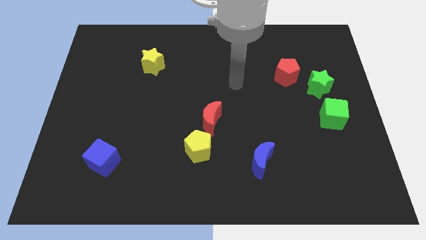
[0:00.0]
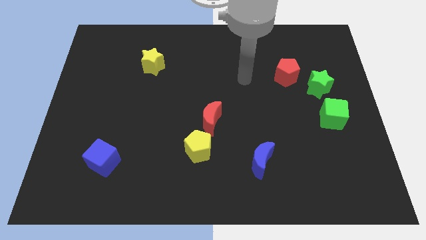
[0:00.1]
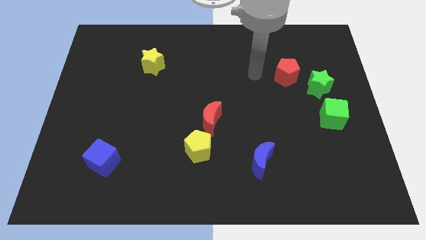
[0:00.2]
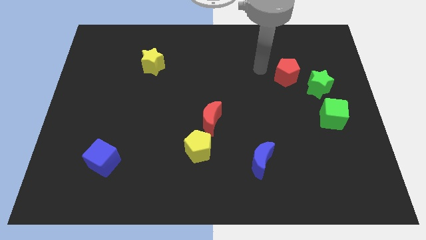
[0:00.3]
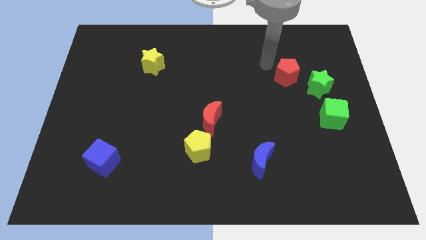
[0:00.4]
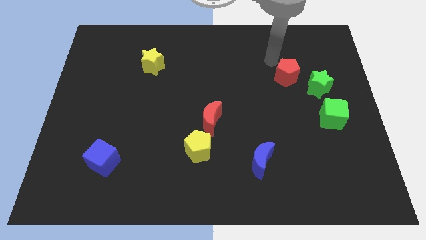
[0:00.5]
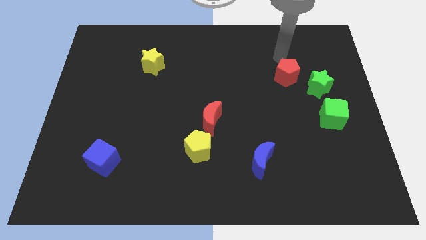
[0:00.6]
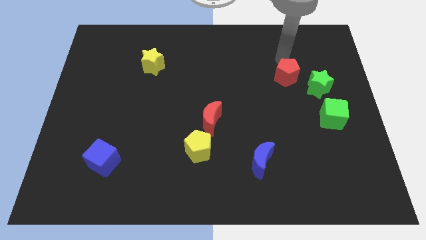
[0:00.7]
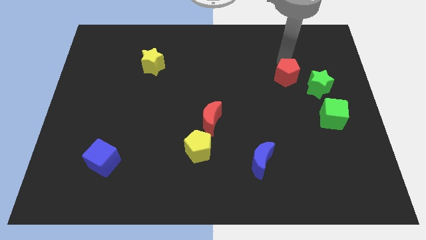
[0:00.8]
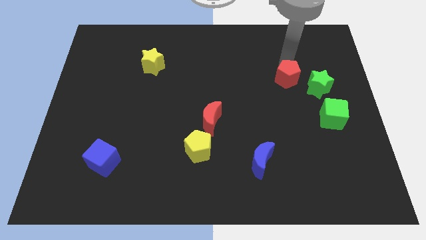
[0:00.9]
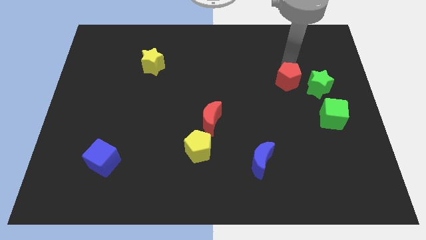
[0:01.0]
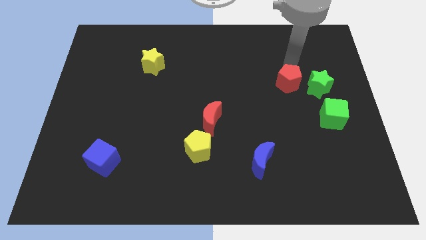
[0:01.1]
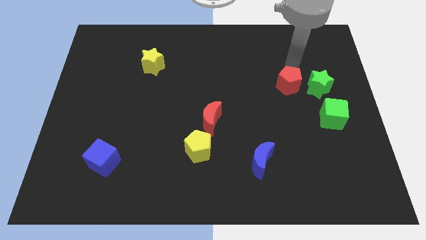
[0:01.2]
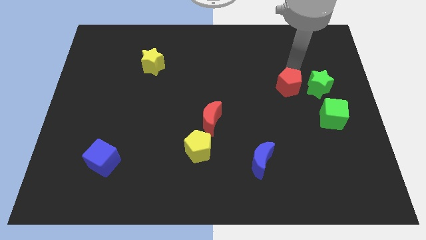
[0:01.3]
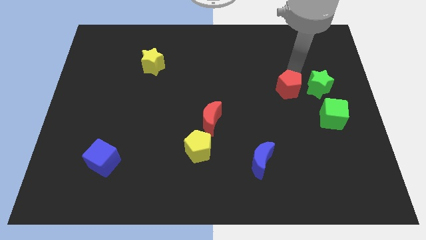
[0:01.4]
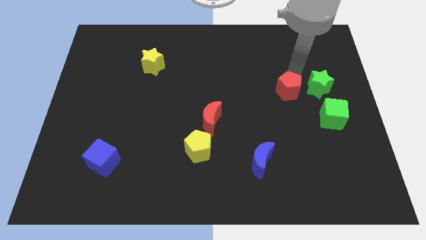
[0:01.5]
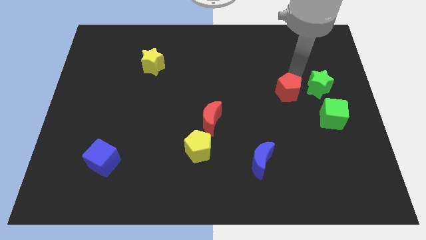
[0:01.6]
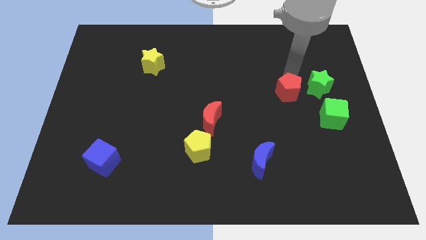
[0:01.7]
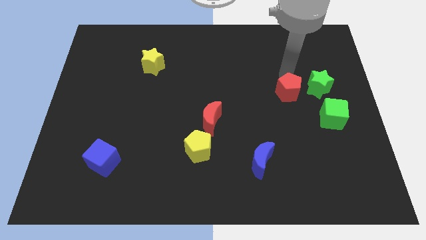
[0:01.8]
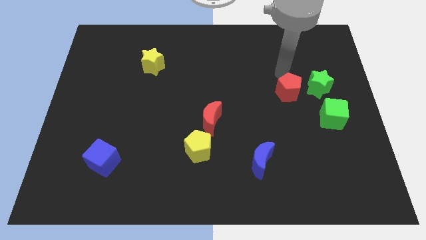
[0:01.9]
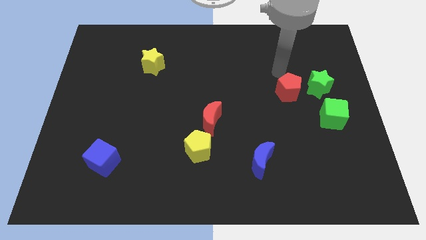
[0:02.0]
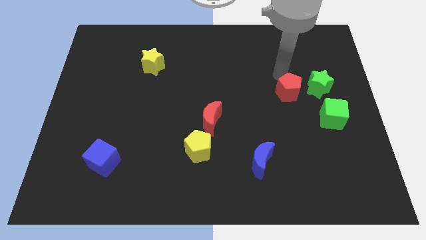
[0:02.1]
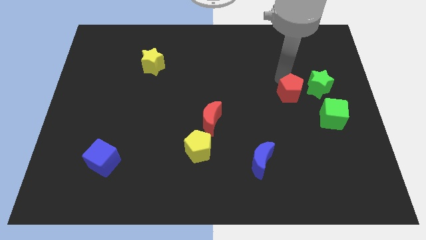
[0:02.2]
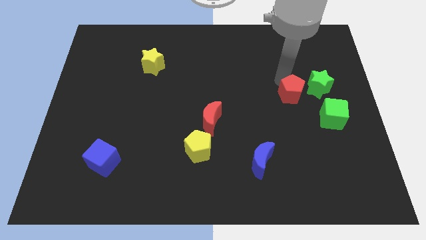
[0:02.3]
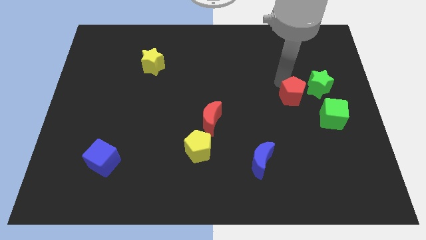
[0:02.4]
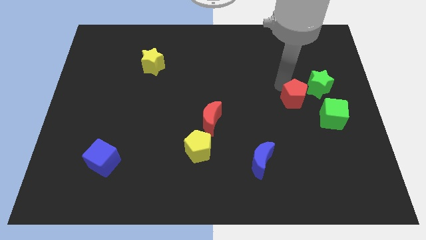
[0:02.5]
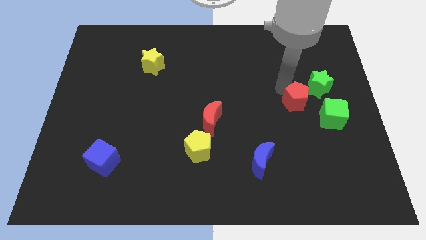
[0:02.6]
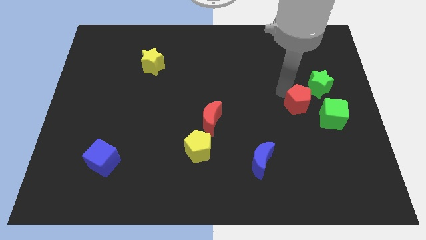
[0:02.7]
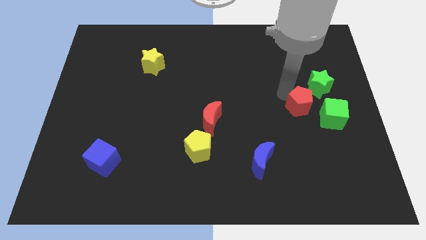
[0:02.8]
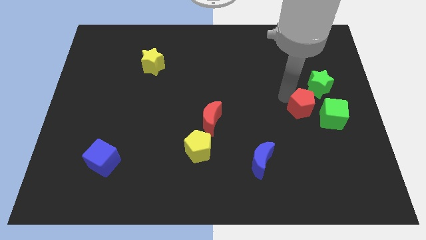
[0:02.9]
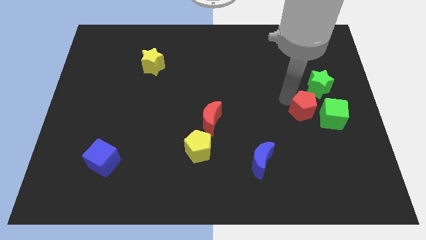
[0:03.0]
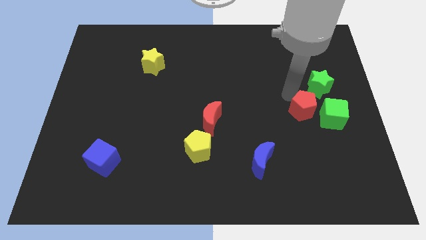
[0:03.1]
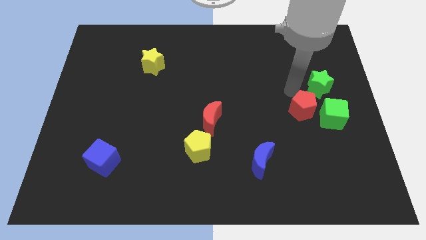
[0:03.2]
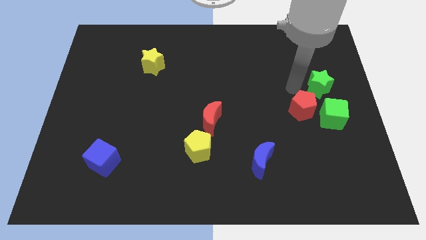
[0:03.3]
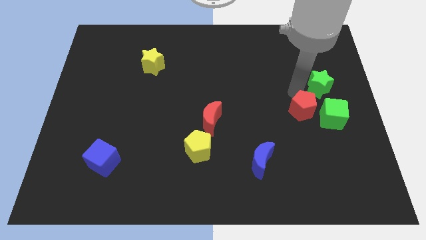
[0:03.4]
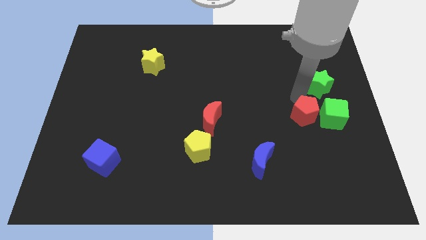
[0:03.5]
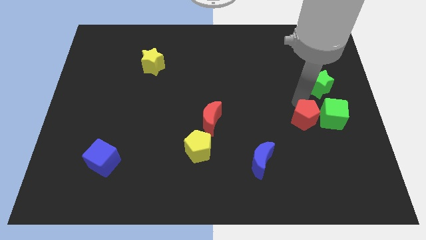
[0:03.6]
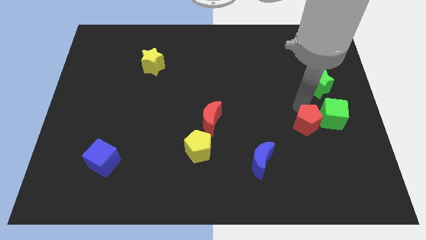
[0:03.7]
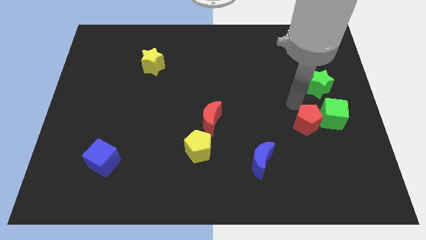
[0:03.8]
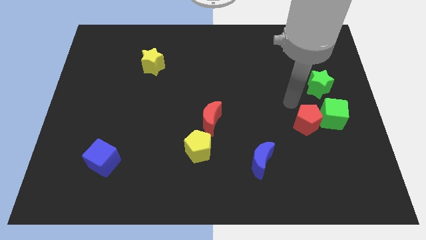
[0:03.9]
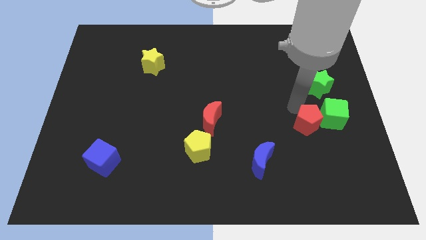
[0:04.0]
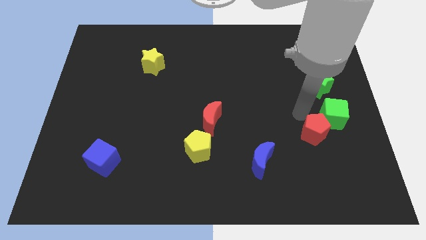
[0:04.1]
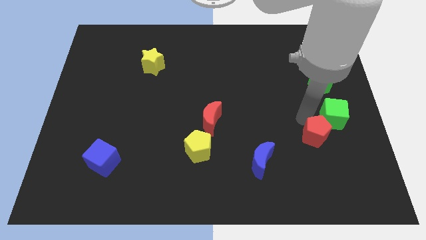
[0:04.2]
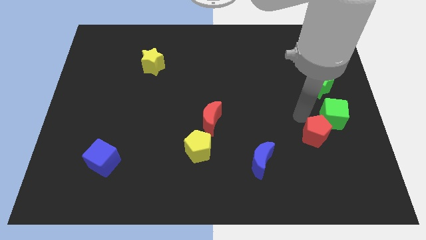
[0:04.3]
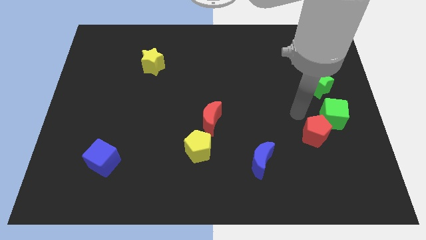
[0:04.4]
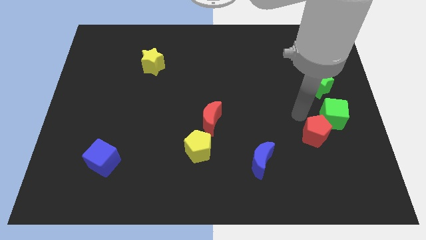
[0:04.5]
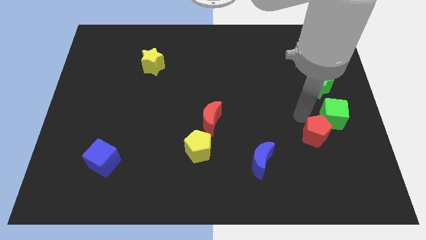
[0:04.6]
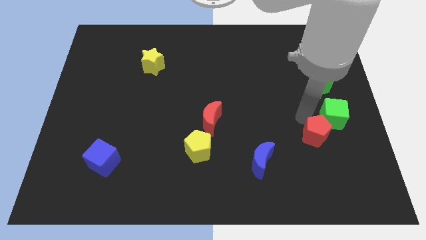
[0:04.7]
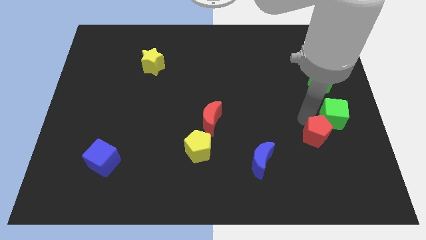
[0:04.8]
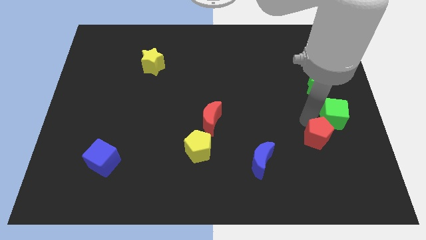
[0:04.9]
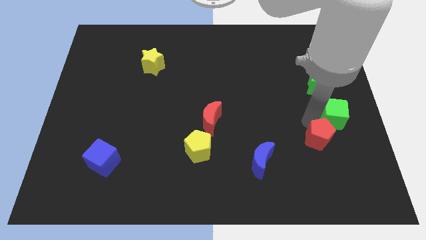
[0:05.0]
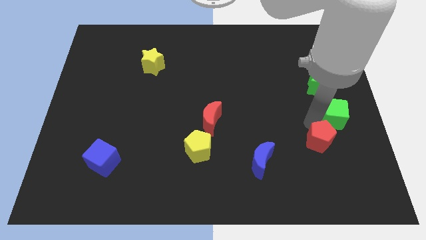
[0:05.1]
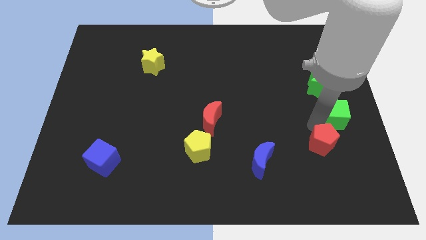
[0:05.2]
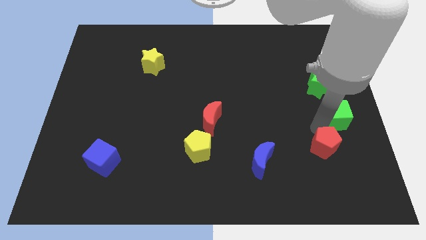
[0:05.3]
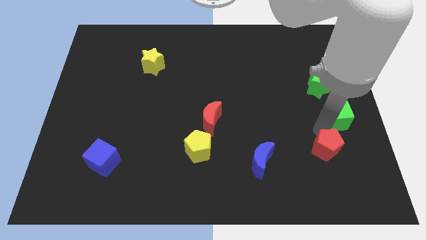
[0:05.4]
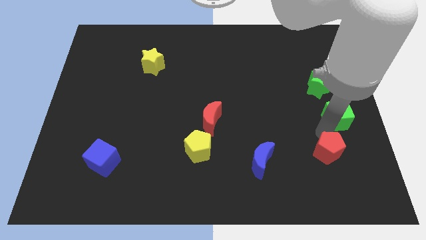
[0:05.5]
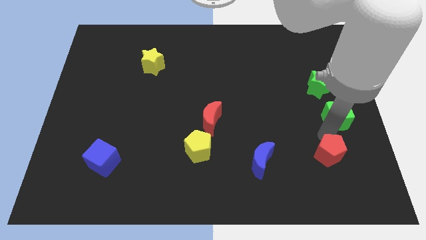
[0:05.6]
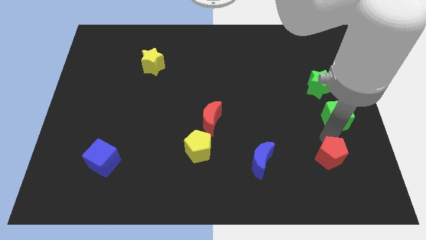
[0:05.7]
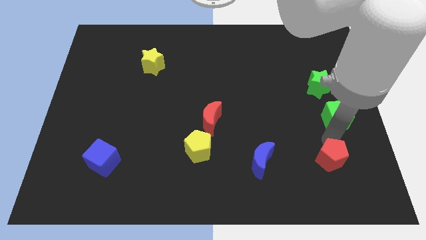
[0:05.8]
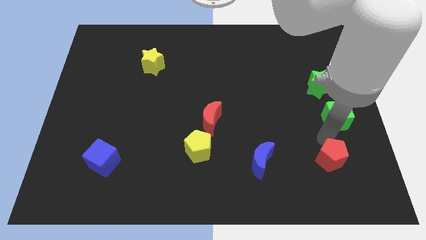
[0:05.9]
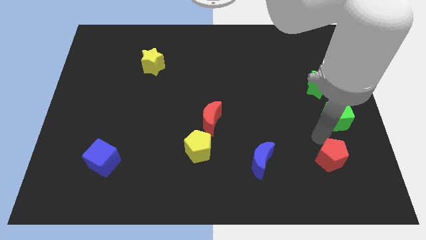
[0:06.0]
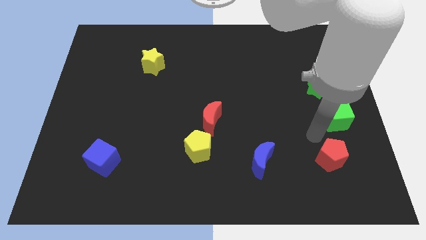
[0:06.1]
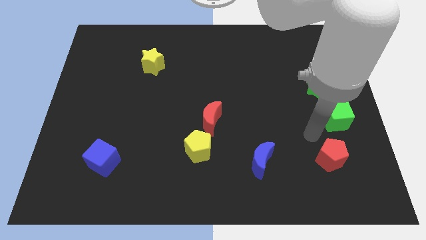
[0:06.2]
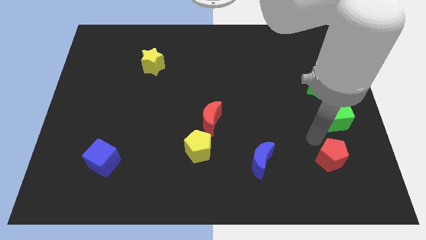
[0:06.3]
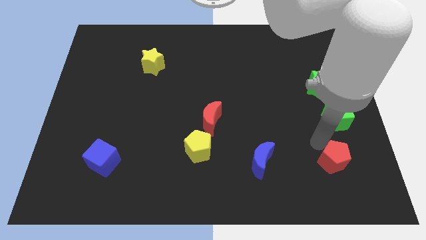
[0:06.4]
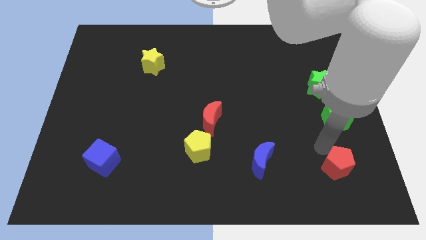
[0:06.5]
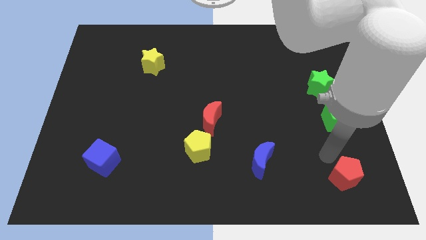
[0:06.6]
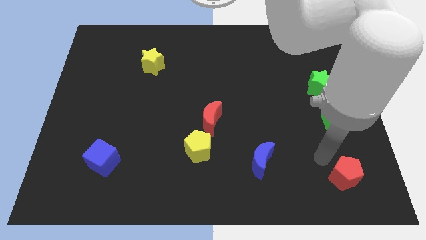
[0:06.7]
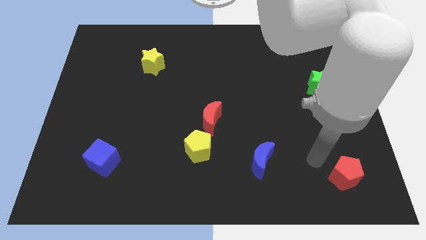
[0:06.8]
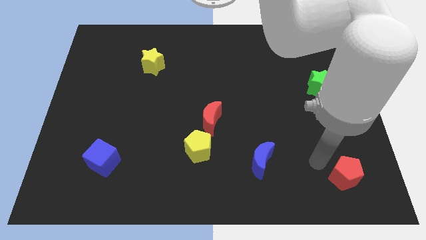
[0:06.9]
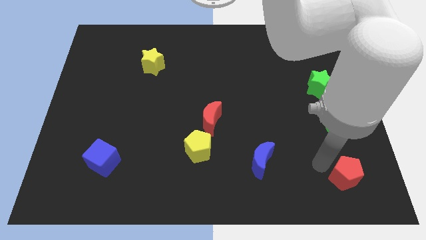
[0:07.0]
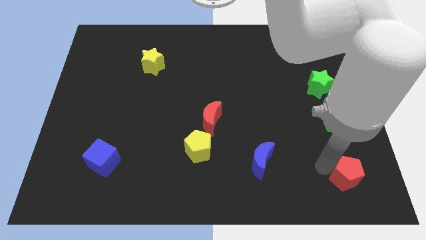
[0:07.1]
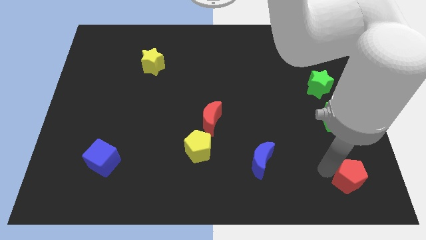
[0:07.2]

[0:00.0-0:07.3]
slide the red pentagon to the bottom right of the board
